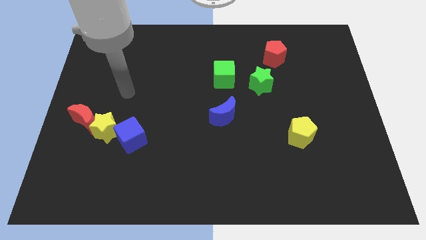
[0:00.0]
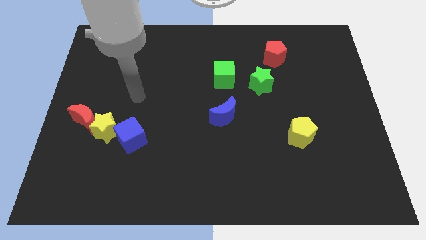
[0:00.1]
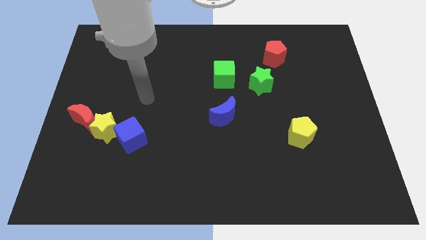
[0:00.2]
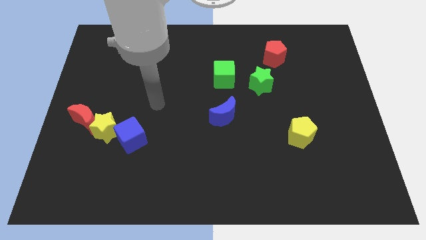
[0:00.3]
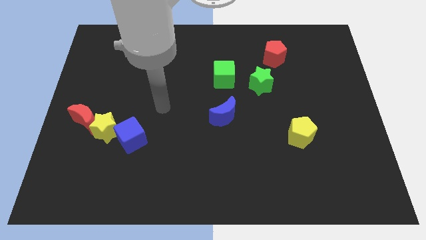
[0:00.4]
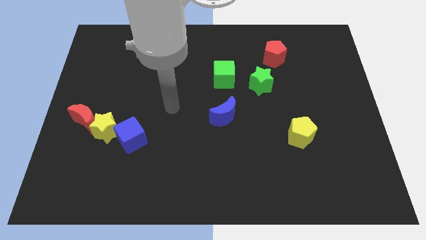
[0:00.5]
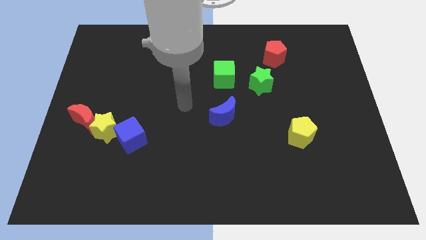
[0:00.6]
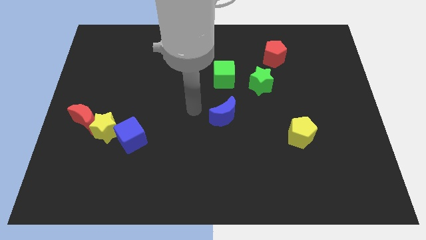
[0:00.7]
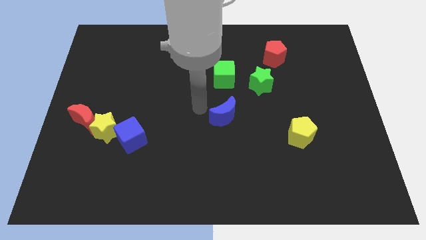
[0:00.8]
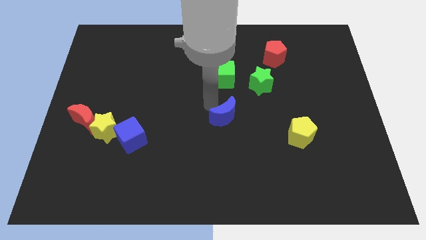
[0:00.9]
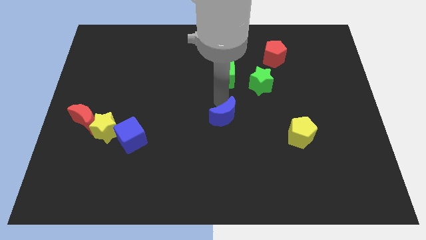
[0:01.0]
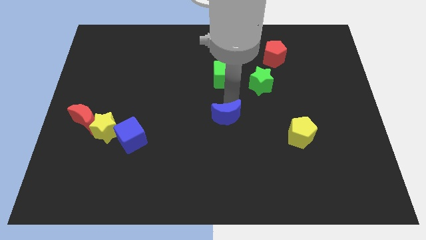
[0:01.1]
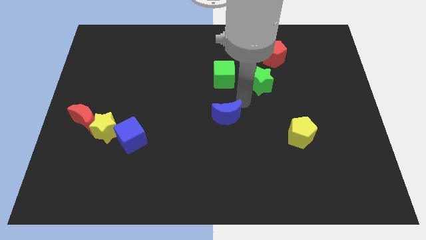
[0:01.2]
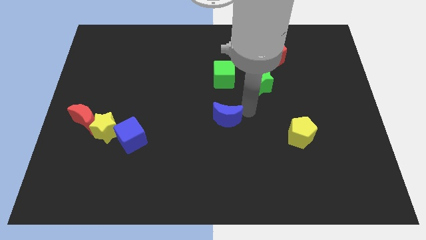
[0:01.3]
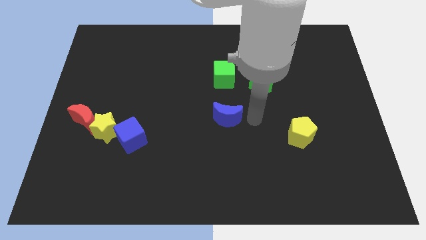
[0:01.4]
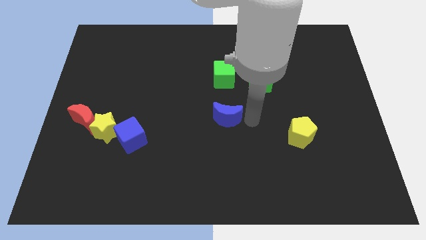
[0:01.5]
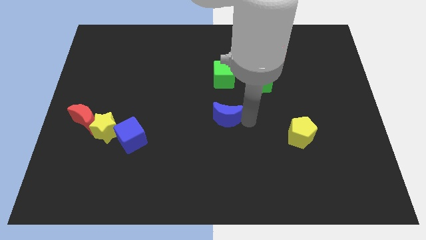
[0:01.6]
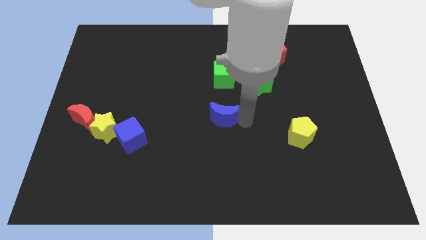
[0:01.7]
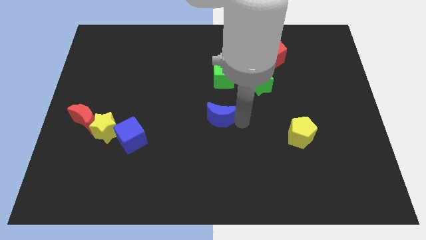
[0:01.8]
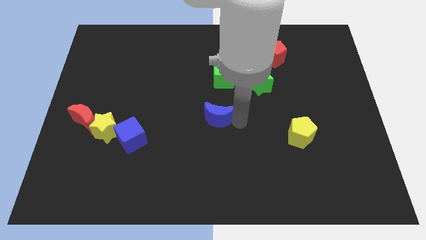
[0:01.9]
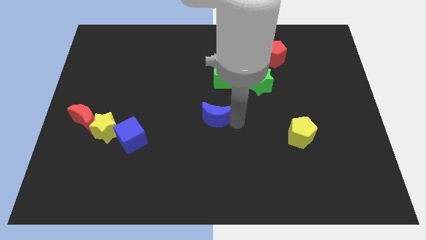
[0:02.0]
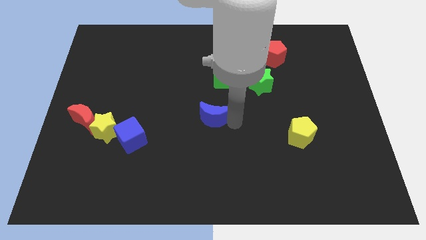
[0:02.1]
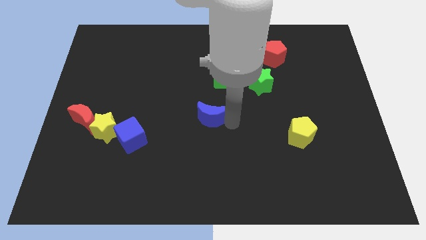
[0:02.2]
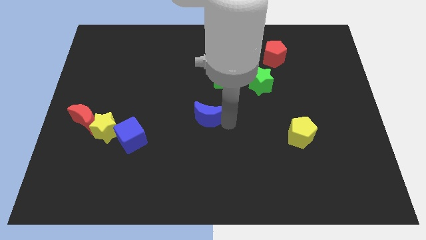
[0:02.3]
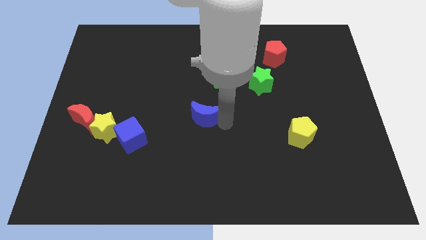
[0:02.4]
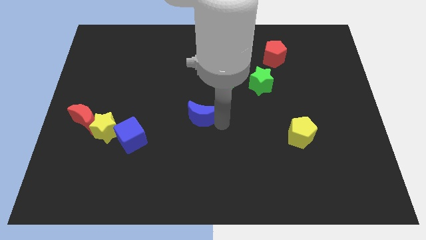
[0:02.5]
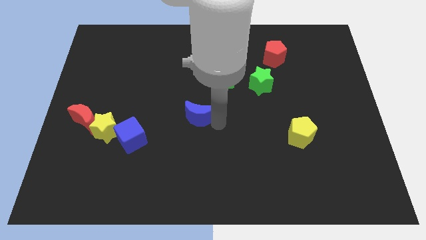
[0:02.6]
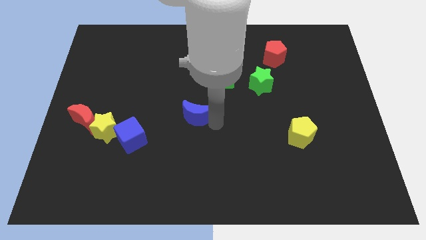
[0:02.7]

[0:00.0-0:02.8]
slightly push the blue moon to the left

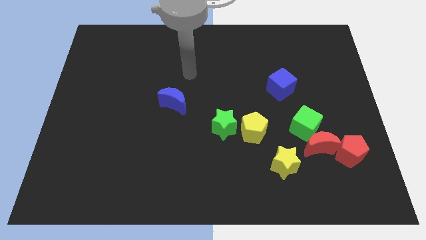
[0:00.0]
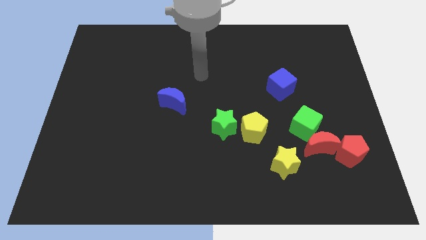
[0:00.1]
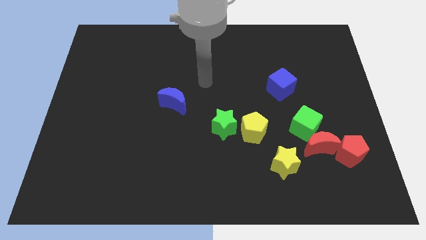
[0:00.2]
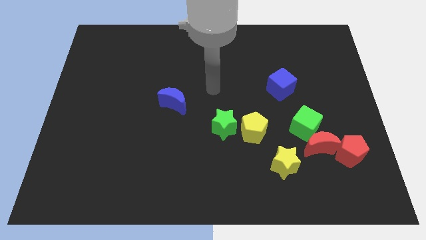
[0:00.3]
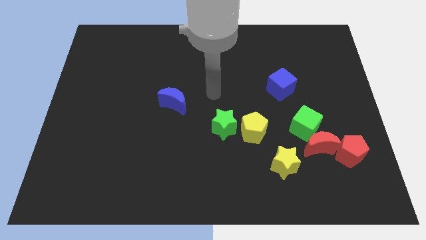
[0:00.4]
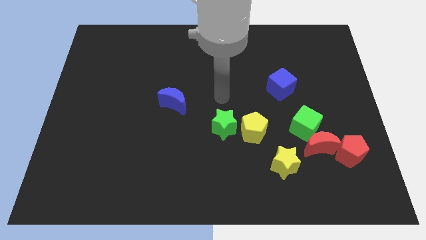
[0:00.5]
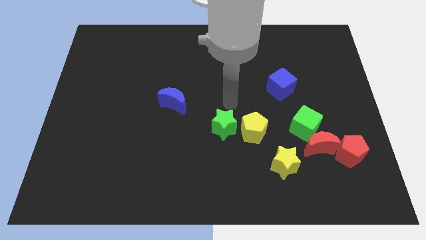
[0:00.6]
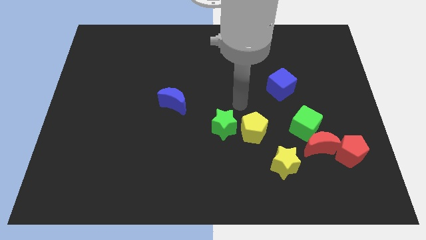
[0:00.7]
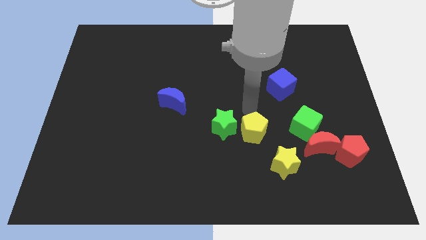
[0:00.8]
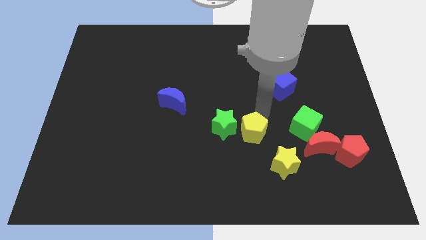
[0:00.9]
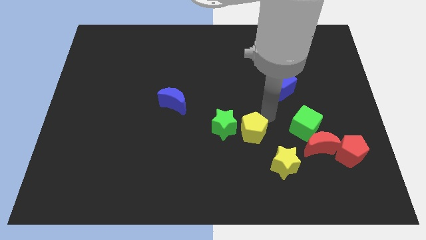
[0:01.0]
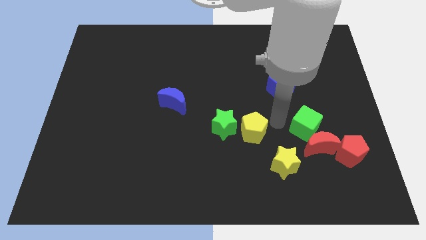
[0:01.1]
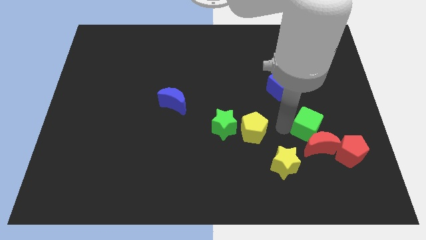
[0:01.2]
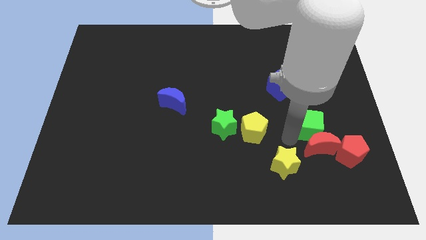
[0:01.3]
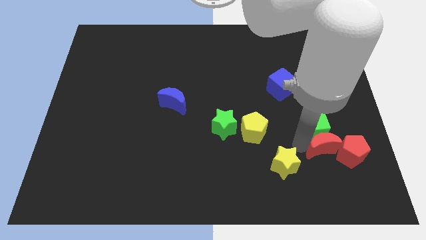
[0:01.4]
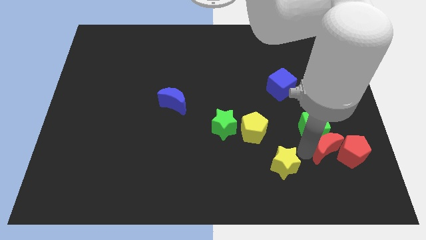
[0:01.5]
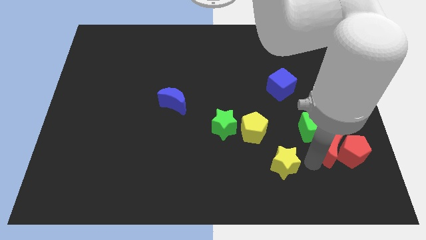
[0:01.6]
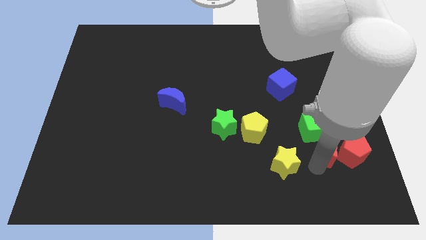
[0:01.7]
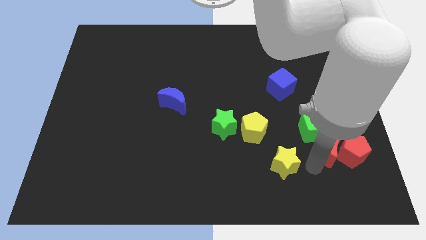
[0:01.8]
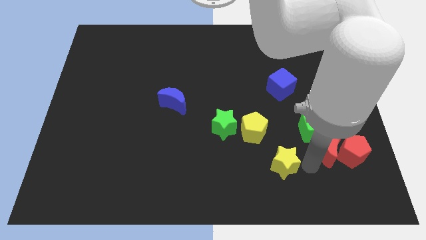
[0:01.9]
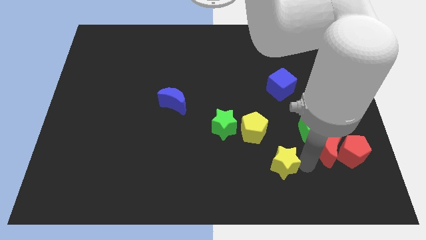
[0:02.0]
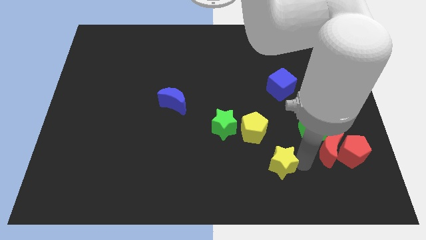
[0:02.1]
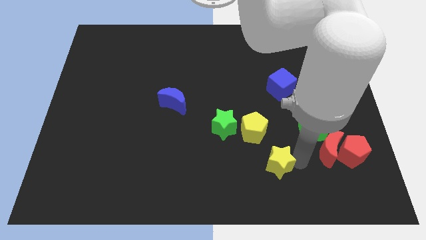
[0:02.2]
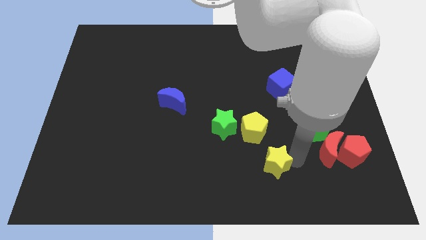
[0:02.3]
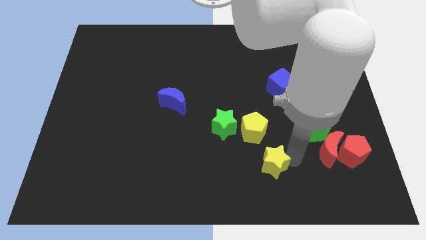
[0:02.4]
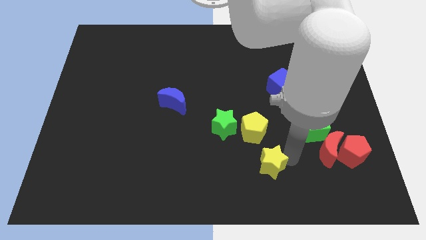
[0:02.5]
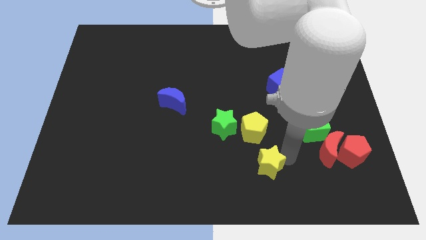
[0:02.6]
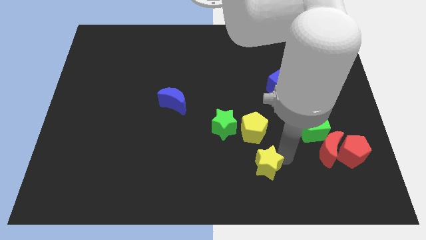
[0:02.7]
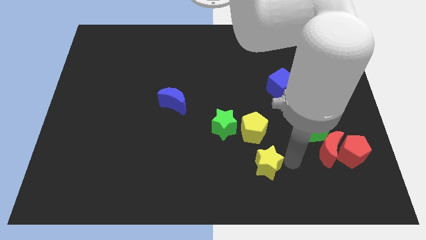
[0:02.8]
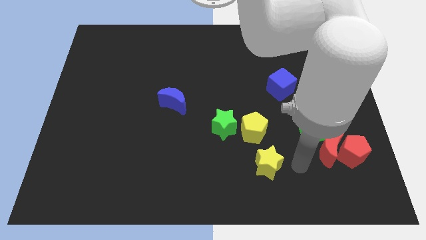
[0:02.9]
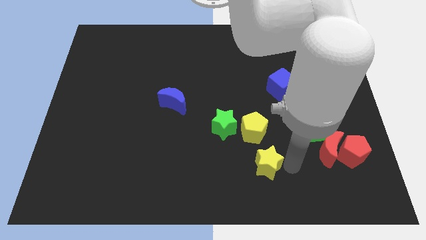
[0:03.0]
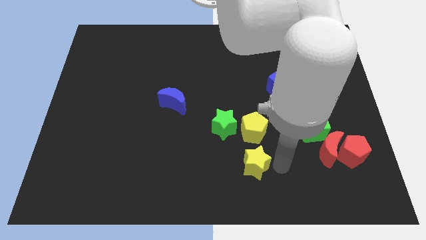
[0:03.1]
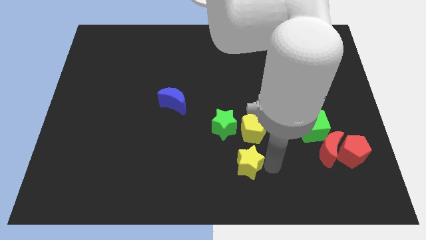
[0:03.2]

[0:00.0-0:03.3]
push the yellow star to the left a bit

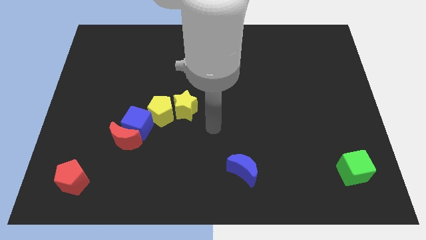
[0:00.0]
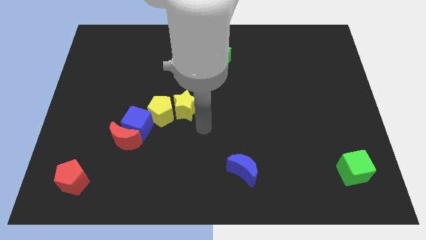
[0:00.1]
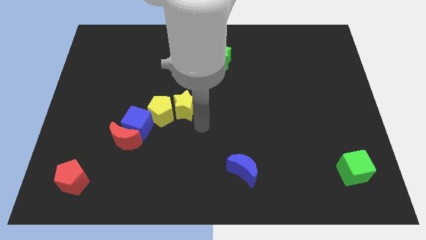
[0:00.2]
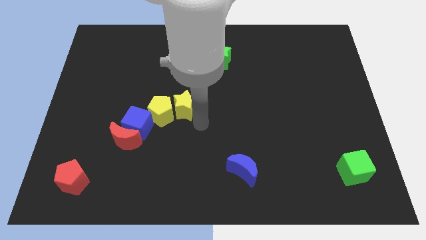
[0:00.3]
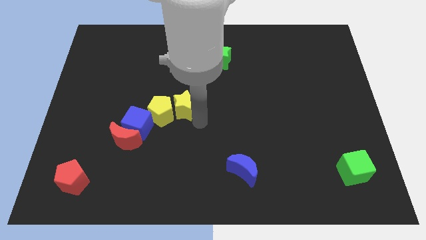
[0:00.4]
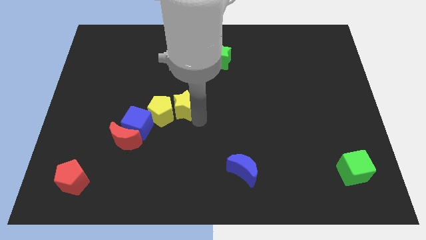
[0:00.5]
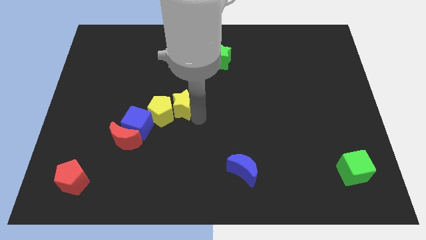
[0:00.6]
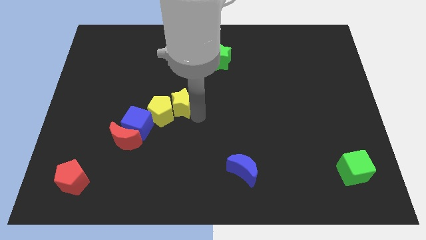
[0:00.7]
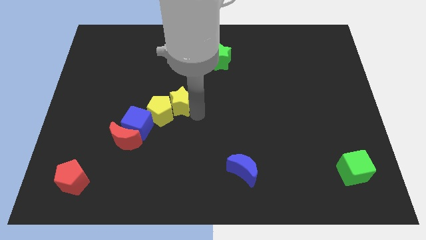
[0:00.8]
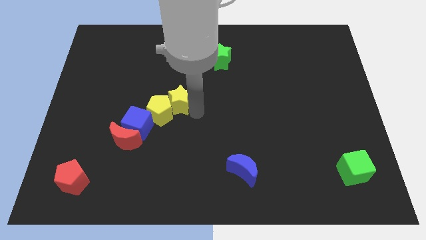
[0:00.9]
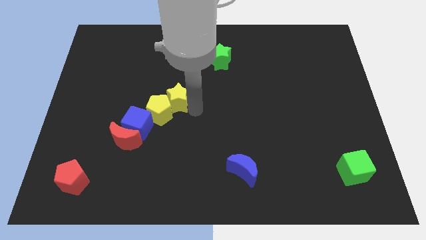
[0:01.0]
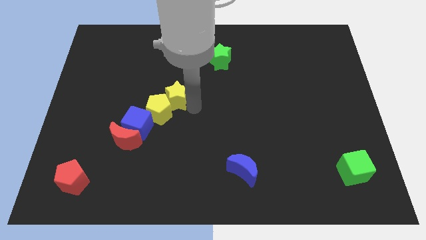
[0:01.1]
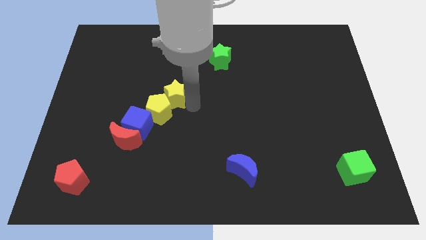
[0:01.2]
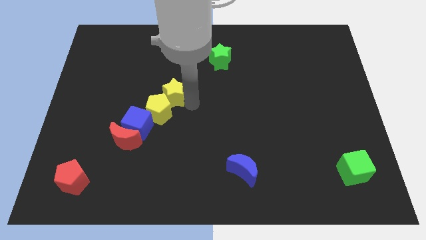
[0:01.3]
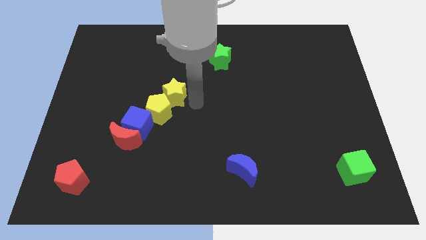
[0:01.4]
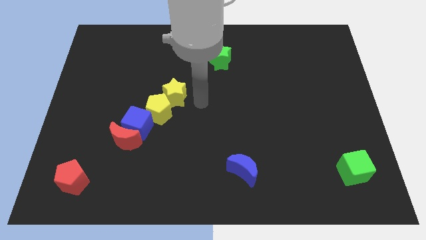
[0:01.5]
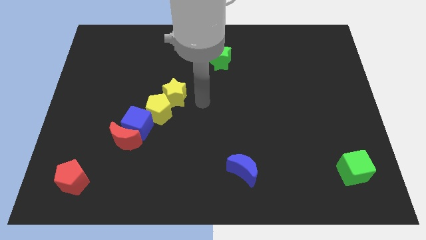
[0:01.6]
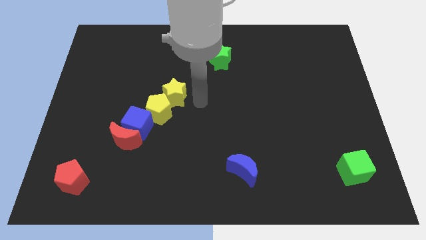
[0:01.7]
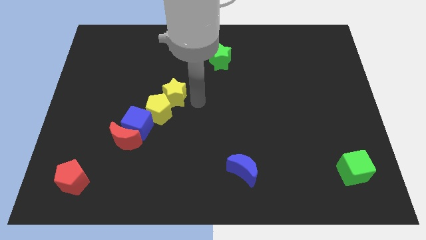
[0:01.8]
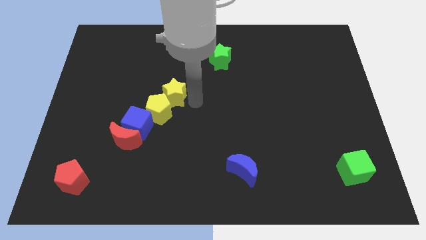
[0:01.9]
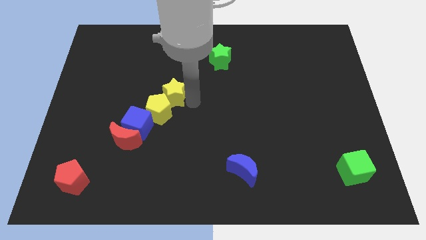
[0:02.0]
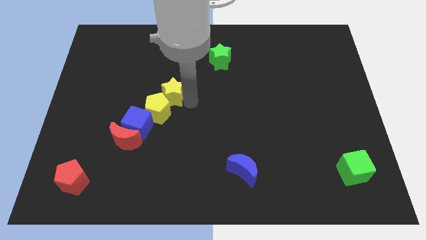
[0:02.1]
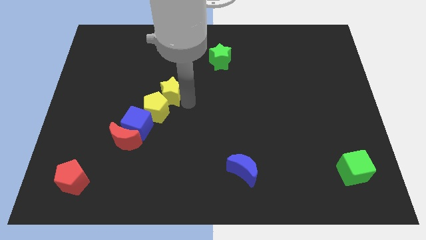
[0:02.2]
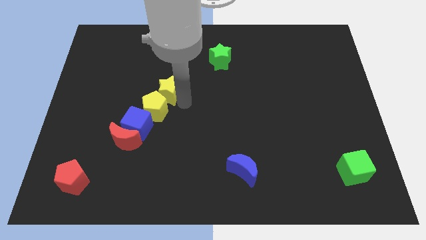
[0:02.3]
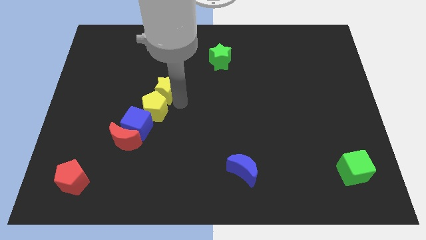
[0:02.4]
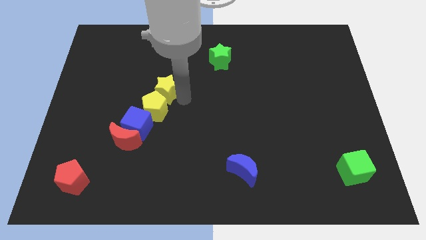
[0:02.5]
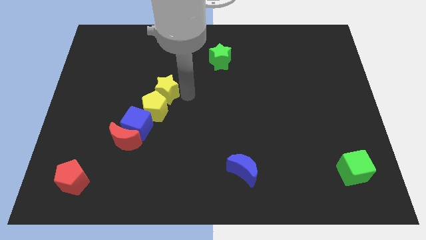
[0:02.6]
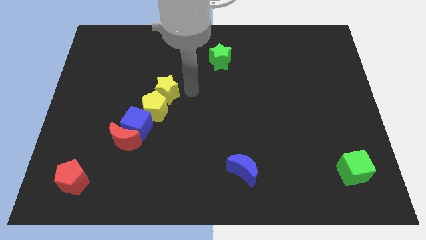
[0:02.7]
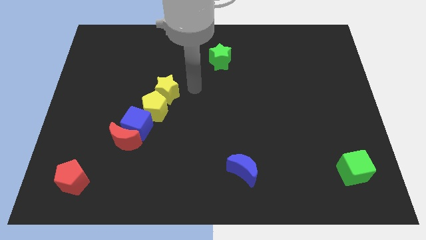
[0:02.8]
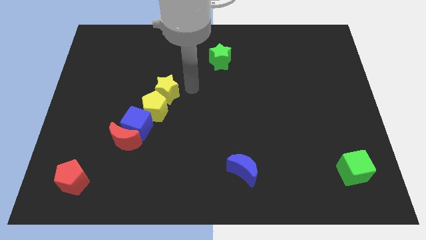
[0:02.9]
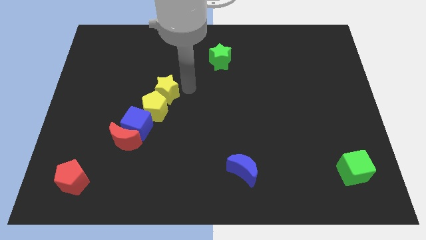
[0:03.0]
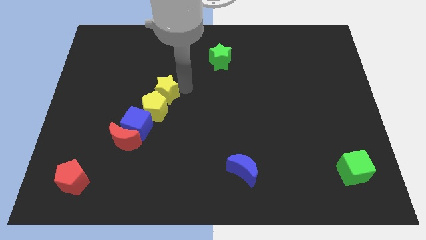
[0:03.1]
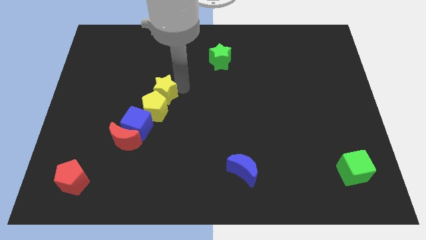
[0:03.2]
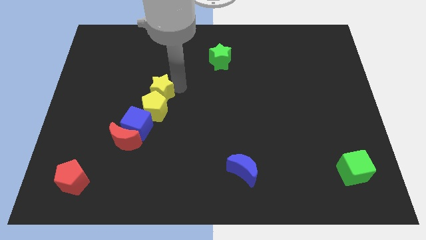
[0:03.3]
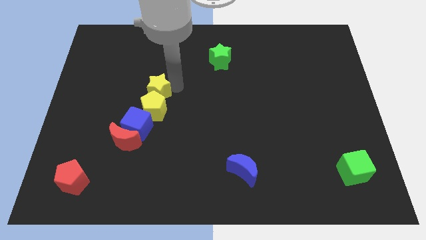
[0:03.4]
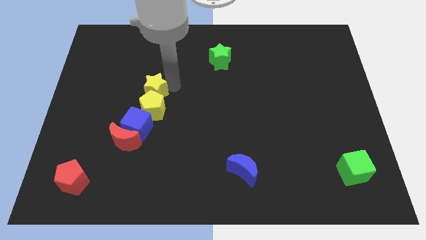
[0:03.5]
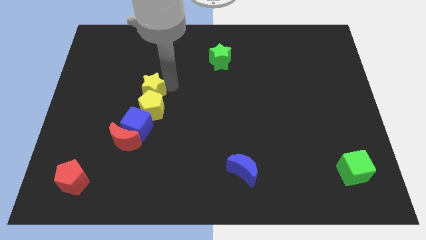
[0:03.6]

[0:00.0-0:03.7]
slide the yellow star left a bit
